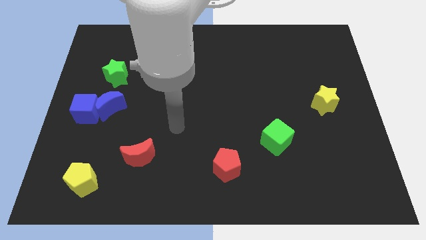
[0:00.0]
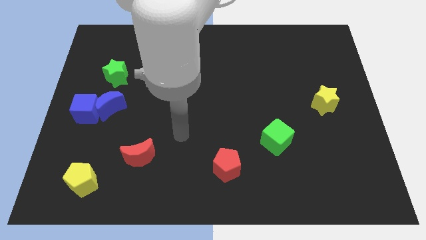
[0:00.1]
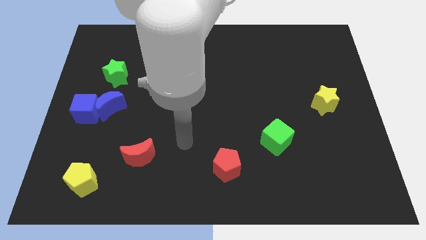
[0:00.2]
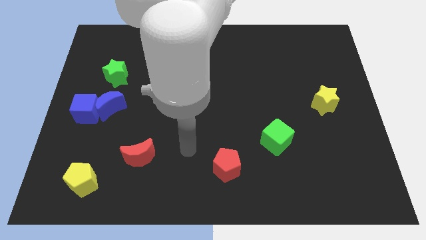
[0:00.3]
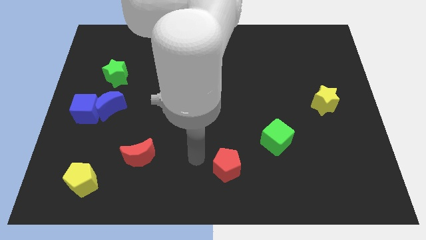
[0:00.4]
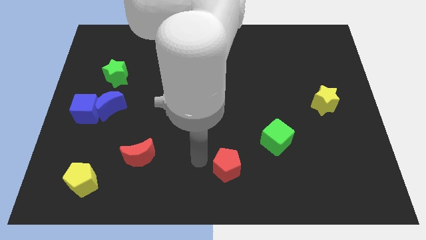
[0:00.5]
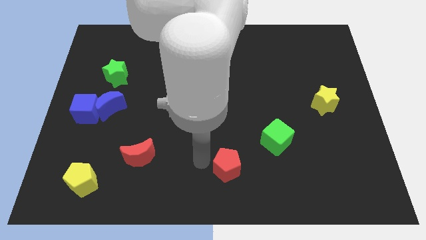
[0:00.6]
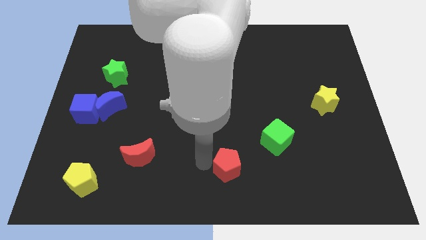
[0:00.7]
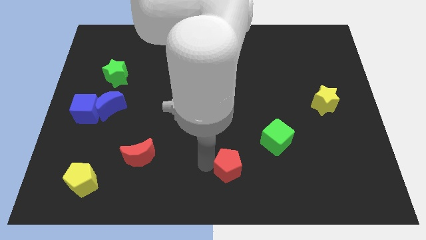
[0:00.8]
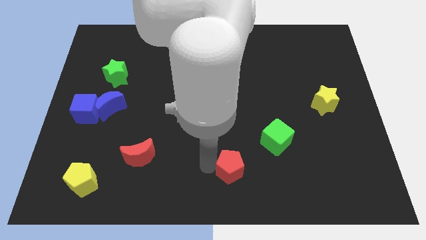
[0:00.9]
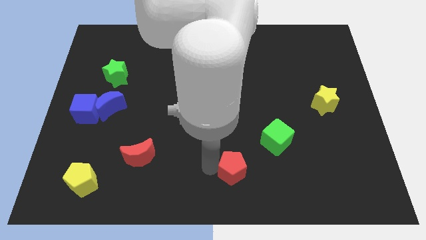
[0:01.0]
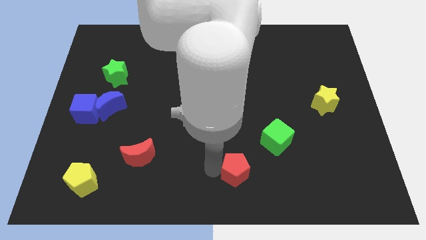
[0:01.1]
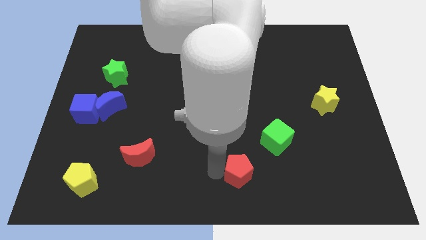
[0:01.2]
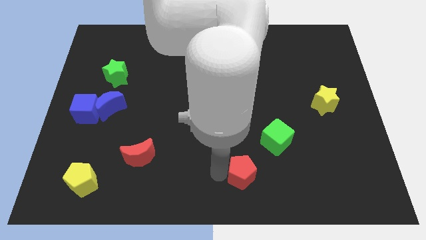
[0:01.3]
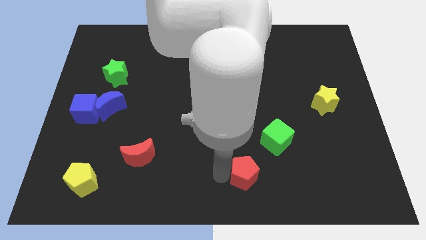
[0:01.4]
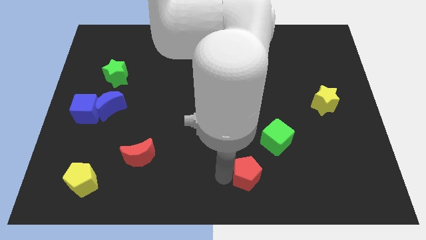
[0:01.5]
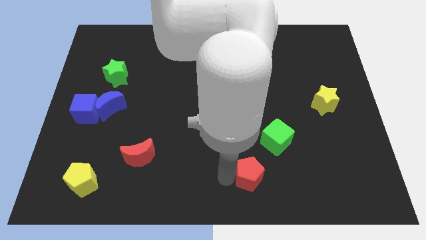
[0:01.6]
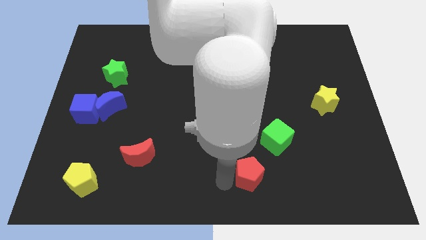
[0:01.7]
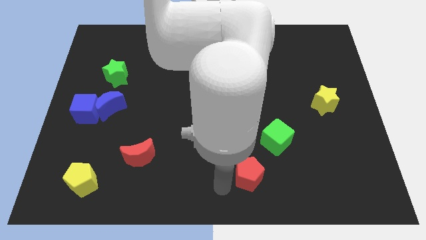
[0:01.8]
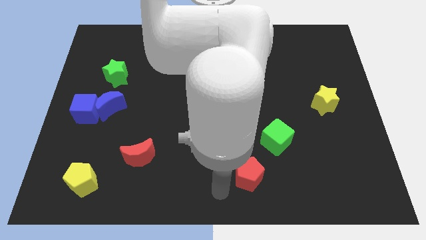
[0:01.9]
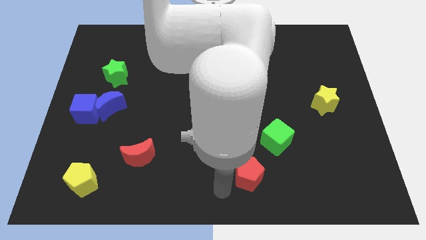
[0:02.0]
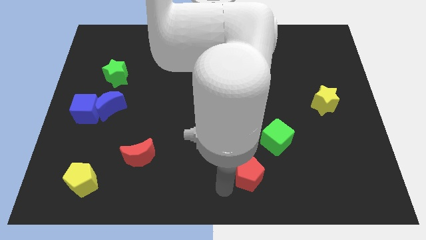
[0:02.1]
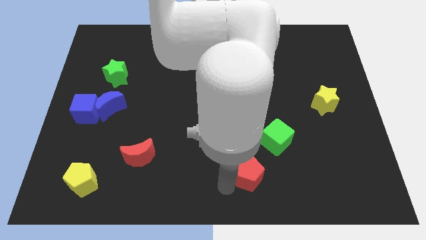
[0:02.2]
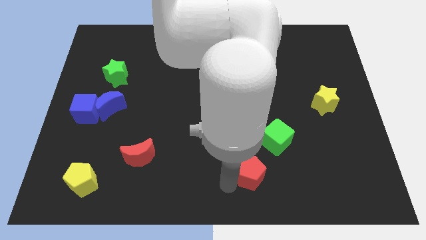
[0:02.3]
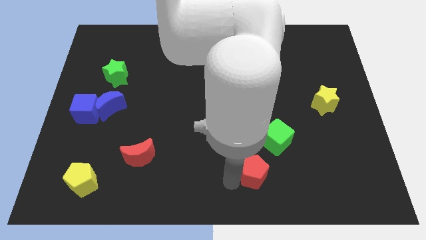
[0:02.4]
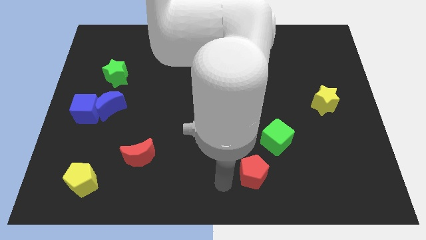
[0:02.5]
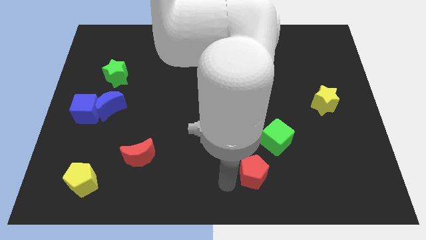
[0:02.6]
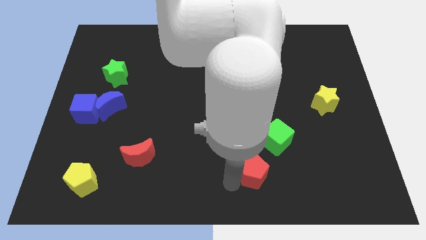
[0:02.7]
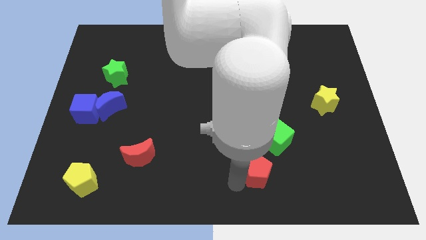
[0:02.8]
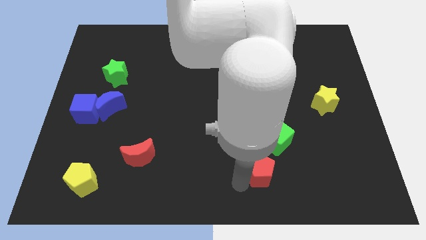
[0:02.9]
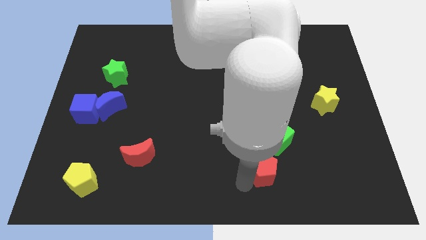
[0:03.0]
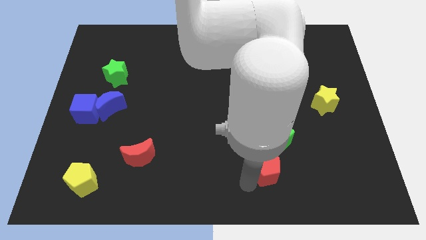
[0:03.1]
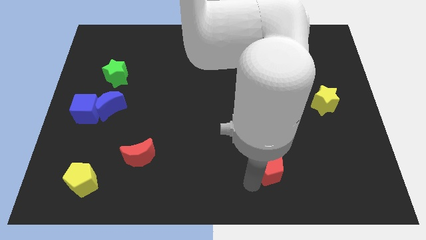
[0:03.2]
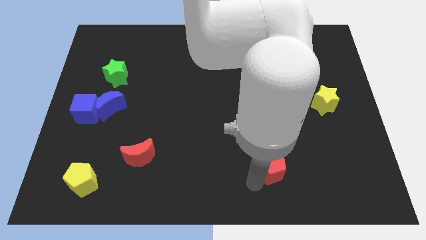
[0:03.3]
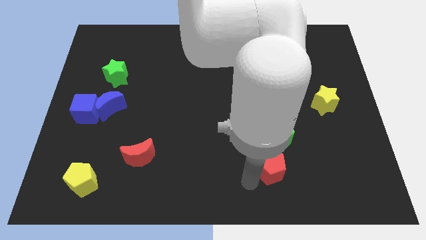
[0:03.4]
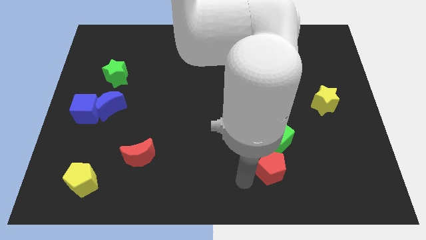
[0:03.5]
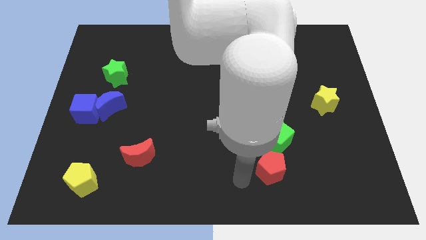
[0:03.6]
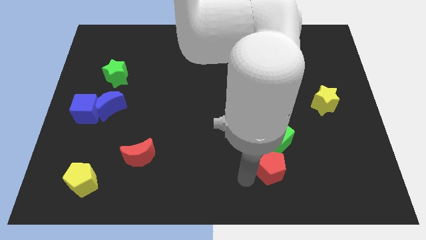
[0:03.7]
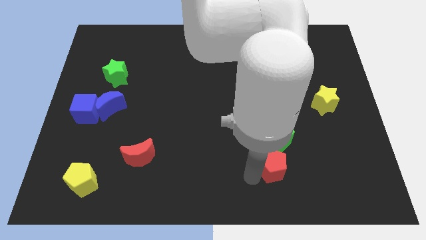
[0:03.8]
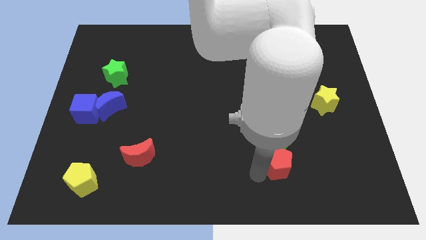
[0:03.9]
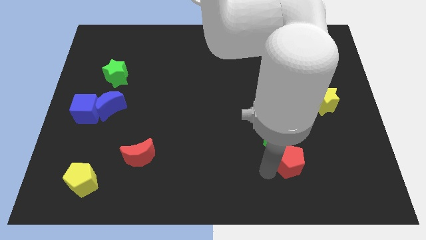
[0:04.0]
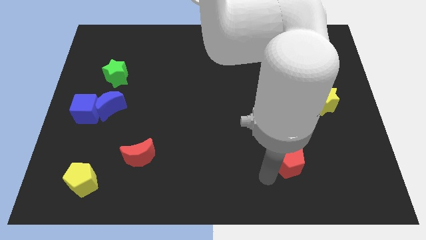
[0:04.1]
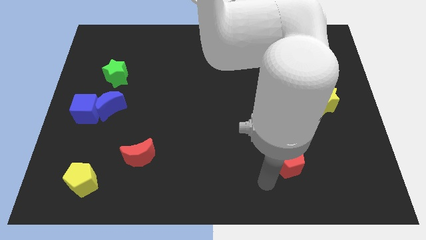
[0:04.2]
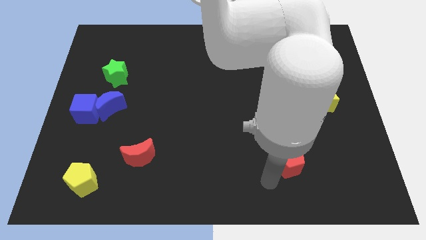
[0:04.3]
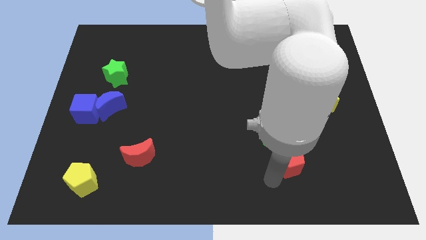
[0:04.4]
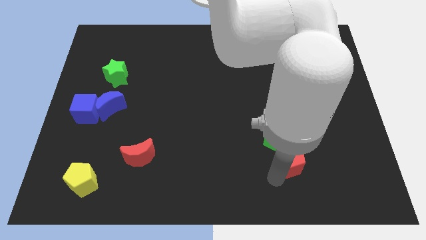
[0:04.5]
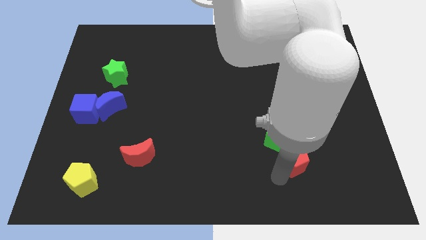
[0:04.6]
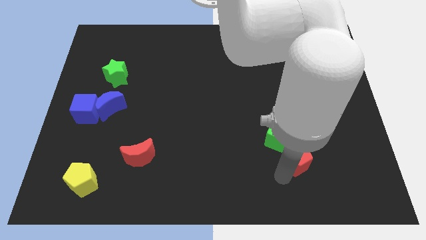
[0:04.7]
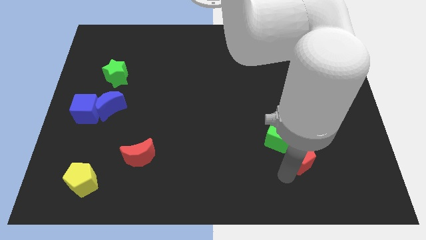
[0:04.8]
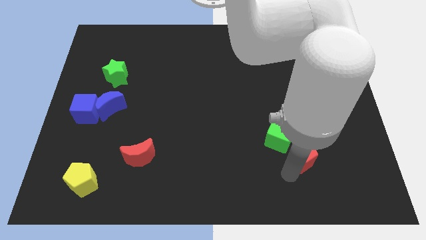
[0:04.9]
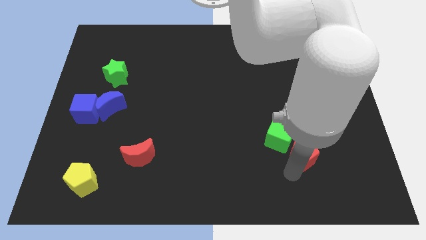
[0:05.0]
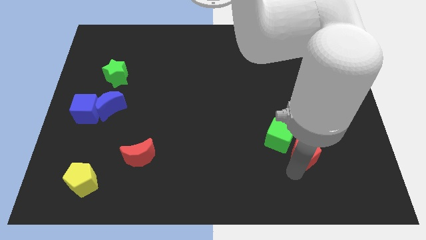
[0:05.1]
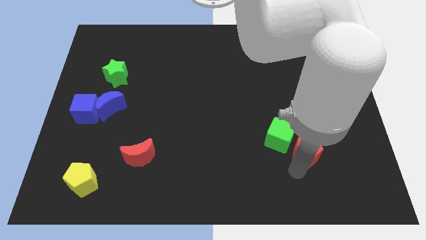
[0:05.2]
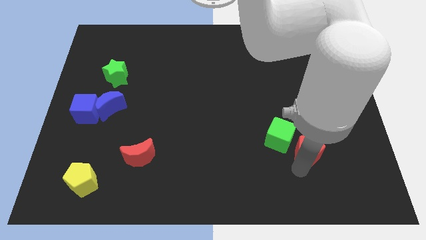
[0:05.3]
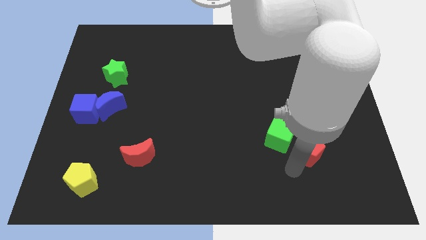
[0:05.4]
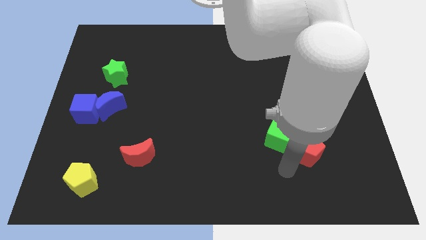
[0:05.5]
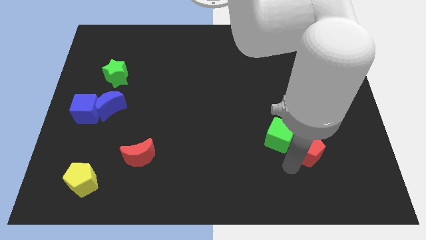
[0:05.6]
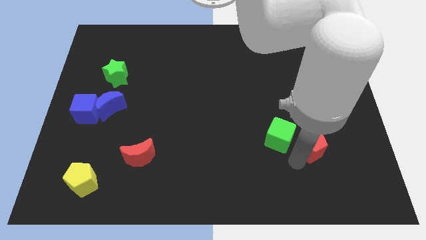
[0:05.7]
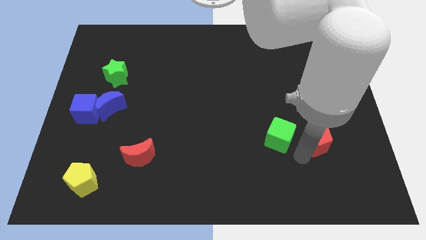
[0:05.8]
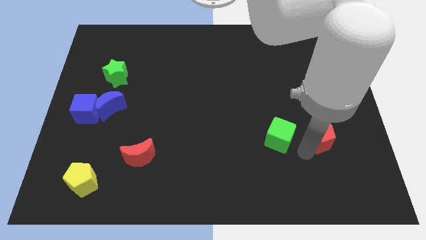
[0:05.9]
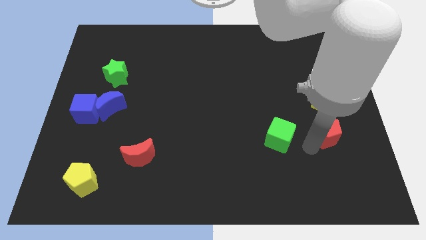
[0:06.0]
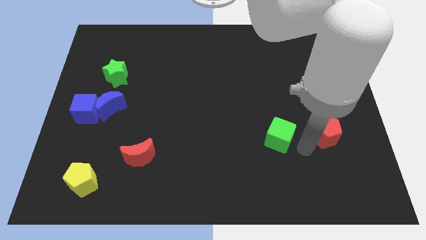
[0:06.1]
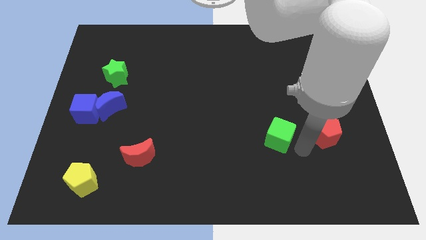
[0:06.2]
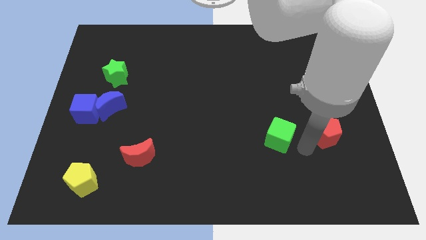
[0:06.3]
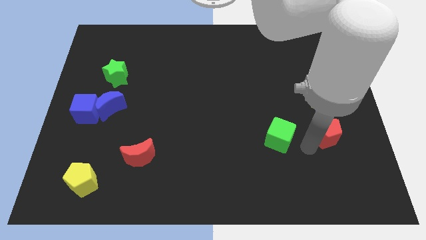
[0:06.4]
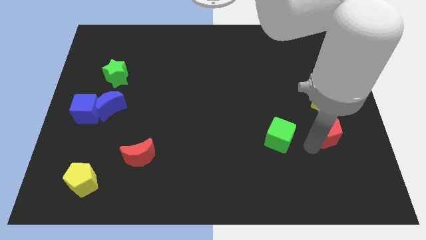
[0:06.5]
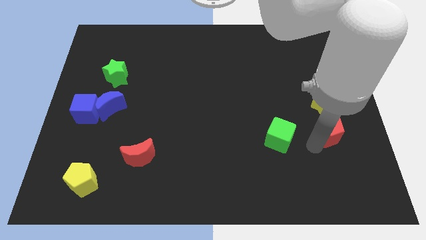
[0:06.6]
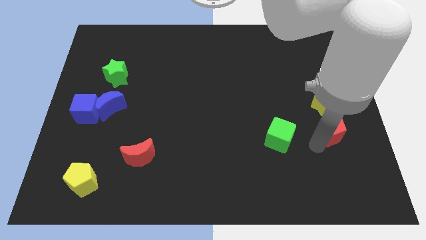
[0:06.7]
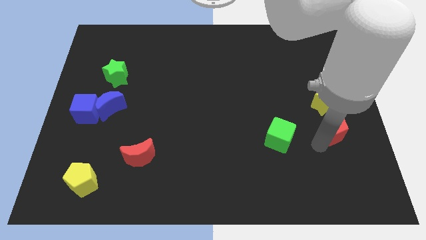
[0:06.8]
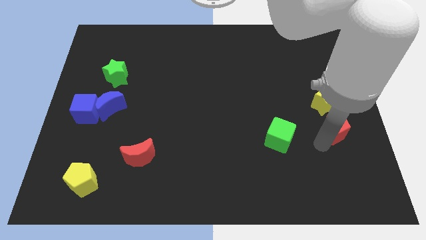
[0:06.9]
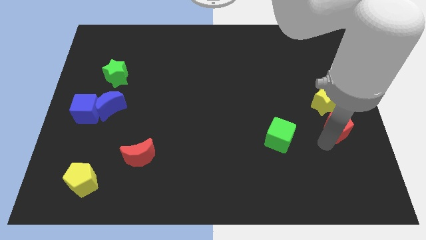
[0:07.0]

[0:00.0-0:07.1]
move the red pentagon to the right side

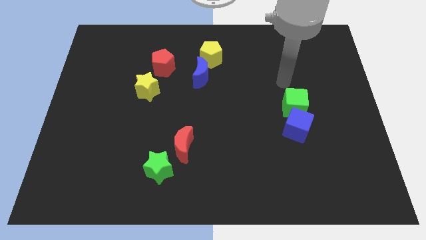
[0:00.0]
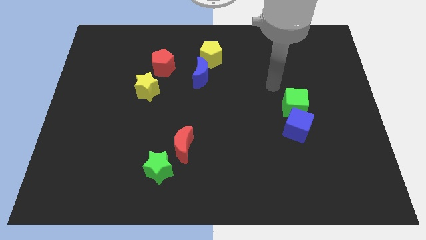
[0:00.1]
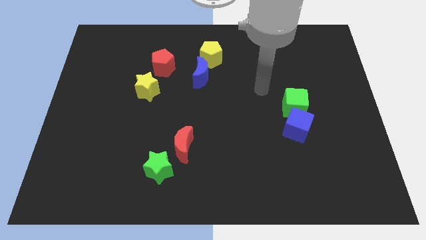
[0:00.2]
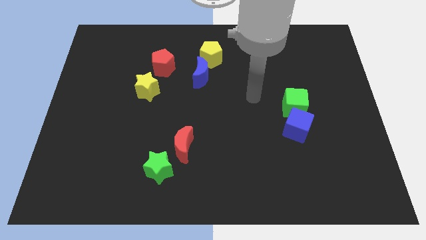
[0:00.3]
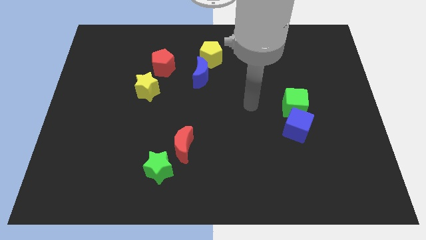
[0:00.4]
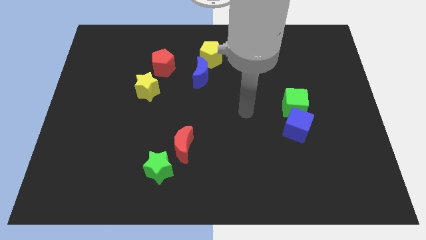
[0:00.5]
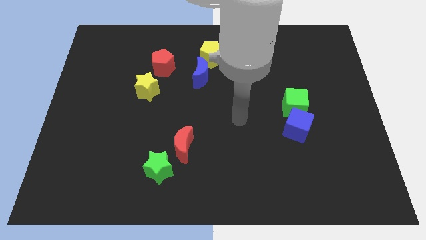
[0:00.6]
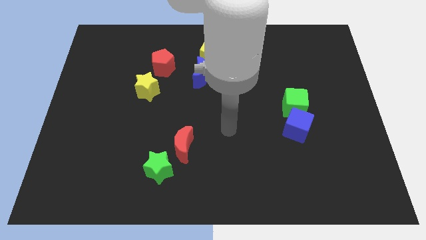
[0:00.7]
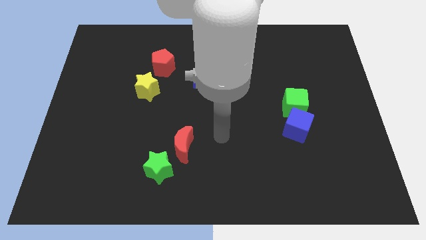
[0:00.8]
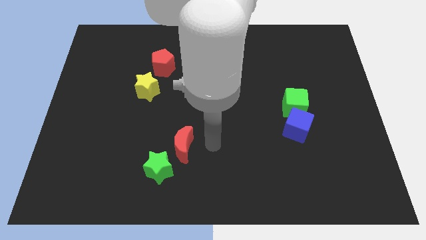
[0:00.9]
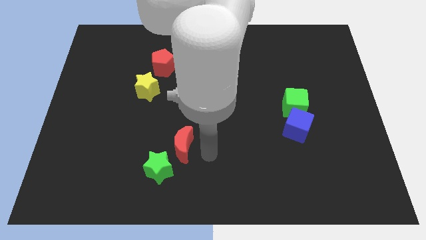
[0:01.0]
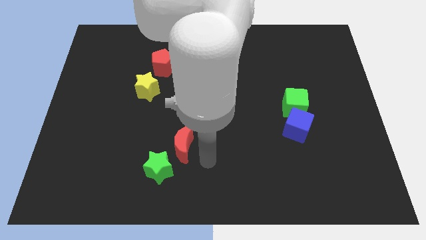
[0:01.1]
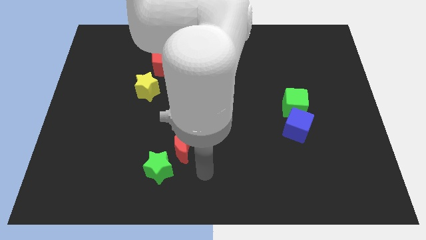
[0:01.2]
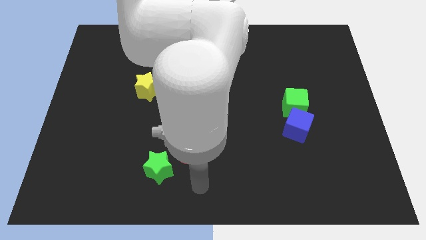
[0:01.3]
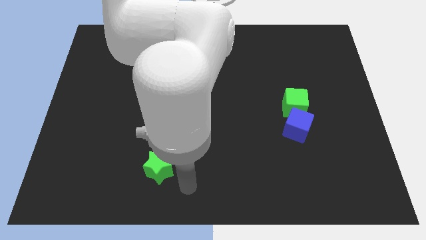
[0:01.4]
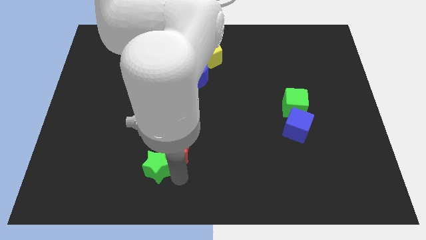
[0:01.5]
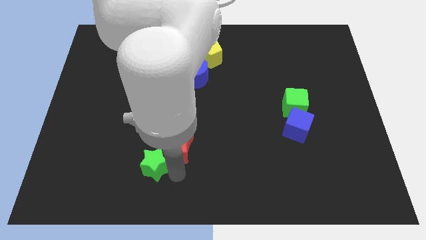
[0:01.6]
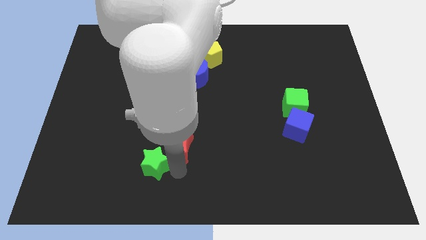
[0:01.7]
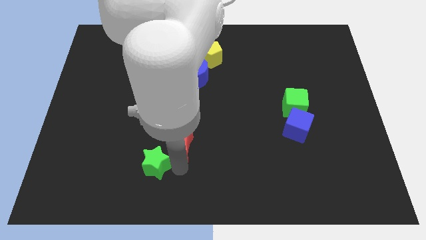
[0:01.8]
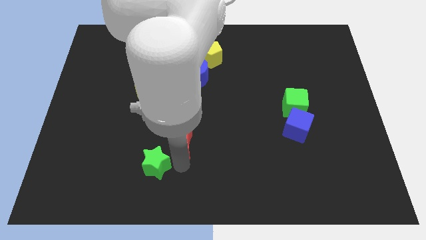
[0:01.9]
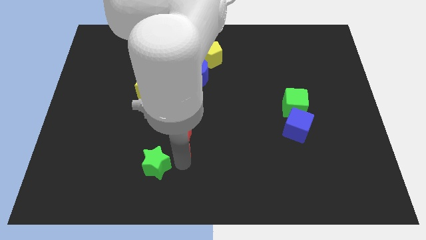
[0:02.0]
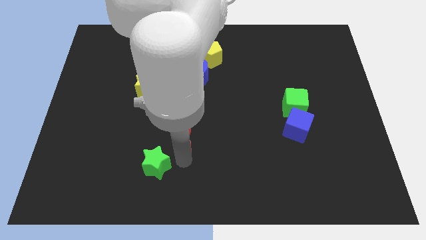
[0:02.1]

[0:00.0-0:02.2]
move the red moon to the middle
